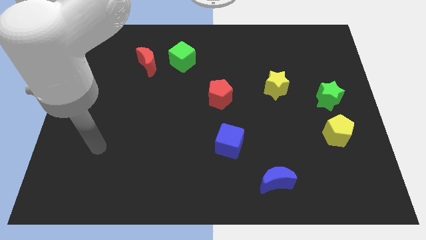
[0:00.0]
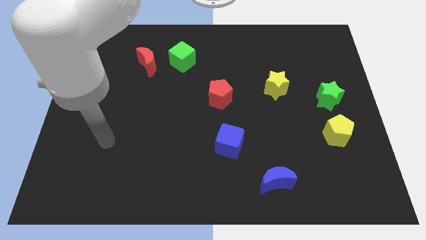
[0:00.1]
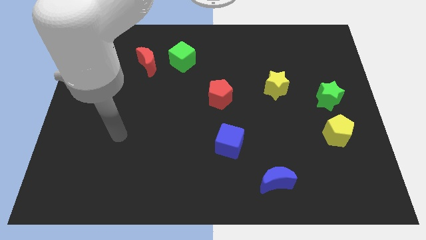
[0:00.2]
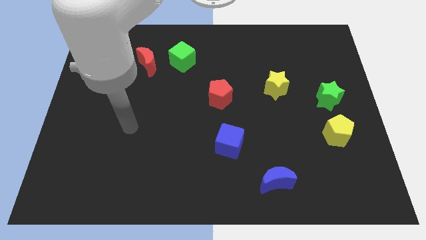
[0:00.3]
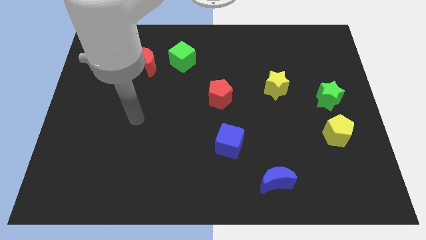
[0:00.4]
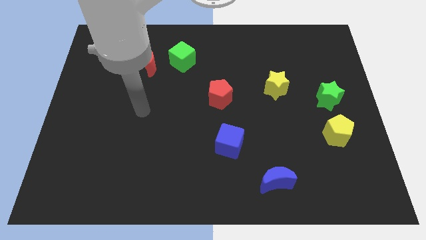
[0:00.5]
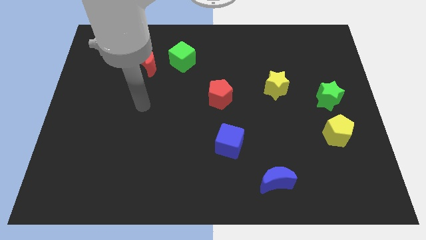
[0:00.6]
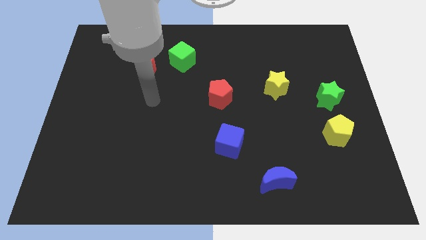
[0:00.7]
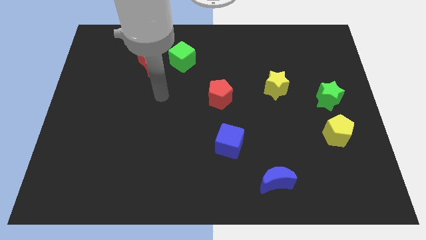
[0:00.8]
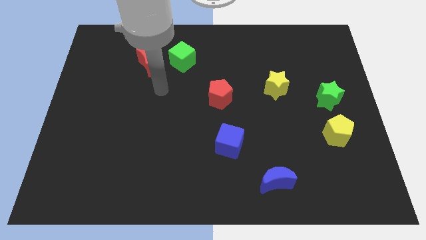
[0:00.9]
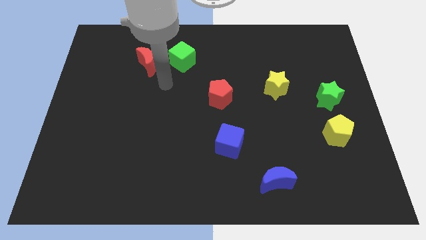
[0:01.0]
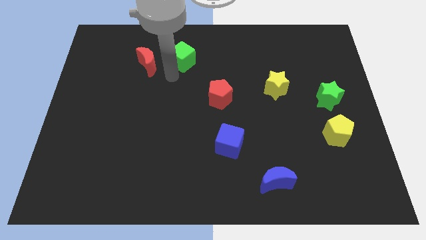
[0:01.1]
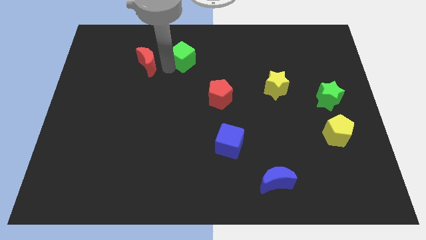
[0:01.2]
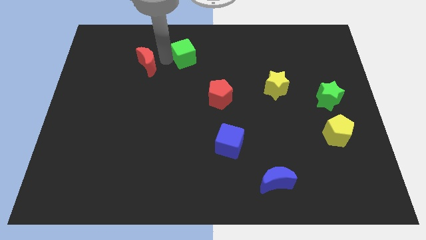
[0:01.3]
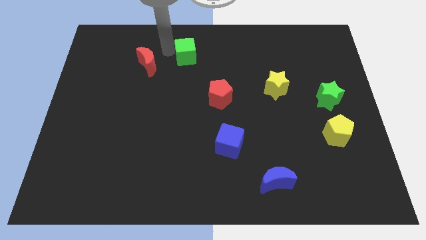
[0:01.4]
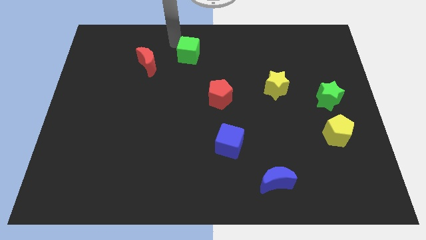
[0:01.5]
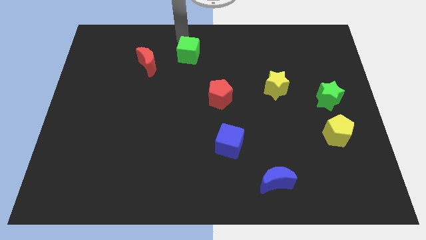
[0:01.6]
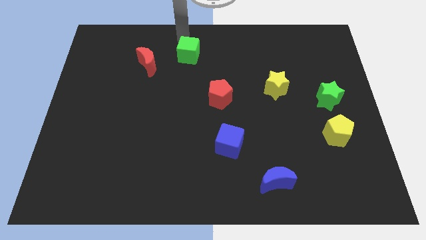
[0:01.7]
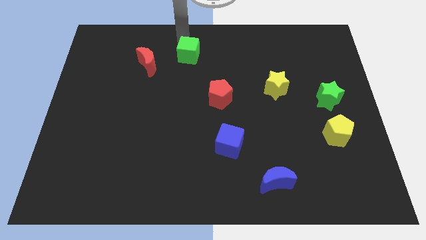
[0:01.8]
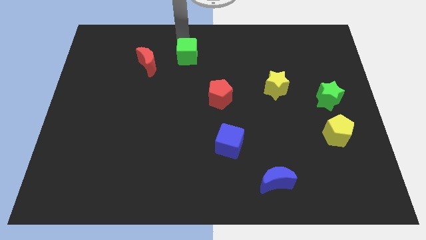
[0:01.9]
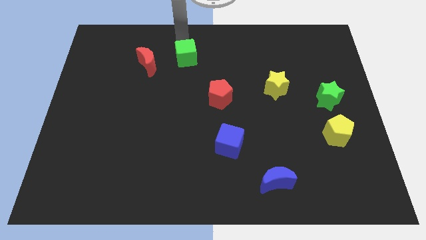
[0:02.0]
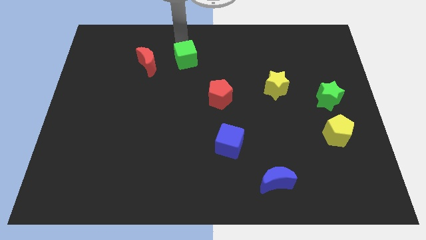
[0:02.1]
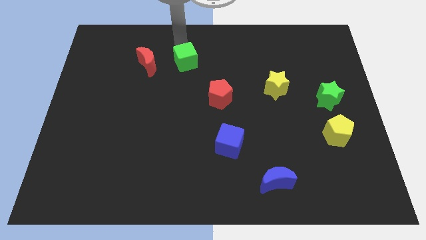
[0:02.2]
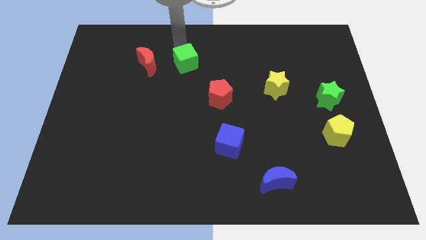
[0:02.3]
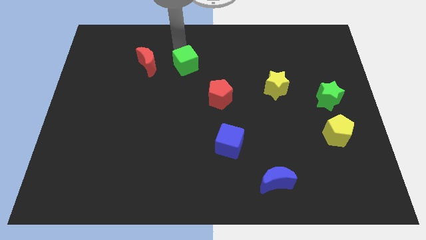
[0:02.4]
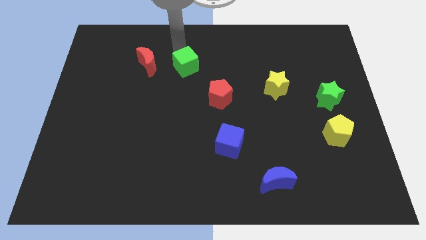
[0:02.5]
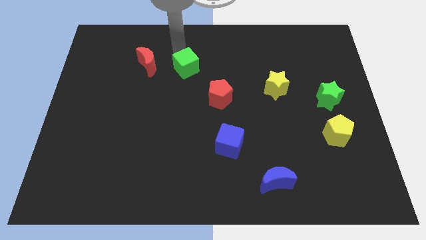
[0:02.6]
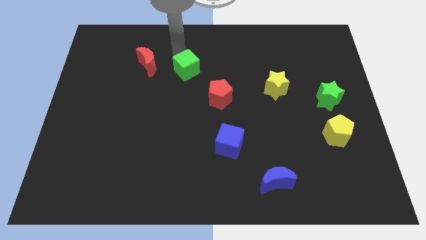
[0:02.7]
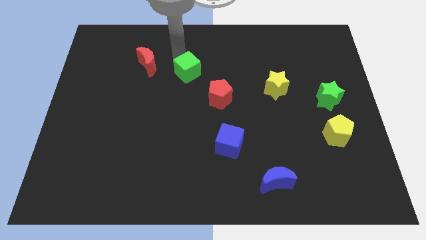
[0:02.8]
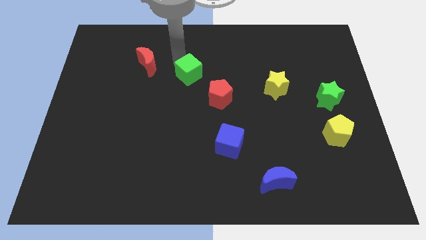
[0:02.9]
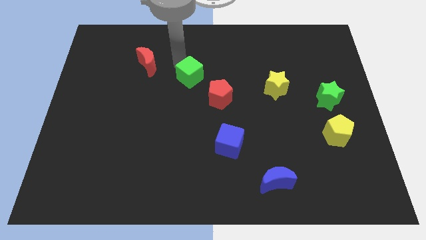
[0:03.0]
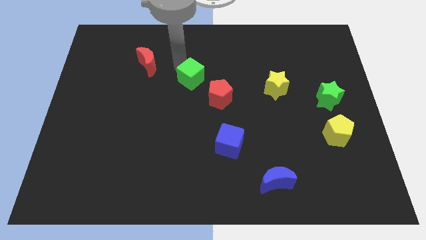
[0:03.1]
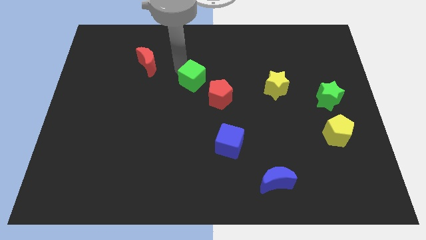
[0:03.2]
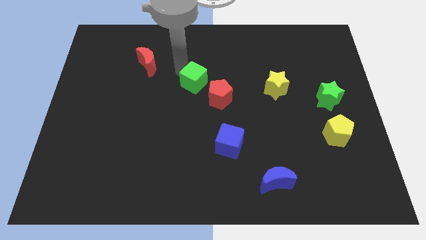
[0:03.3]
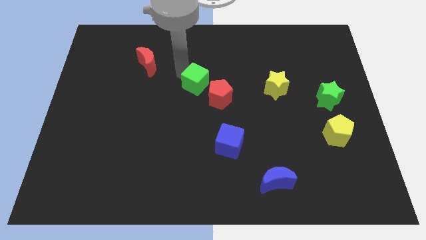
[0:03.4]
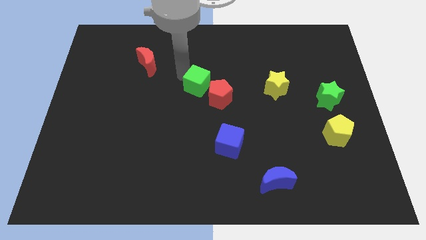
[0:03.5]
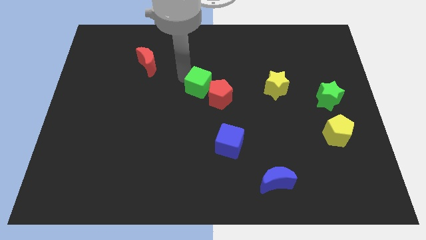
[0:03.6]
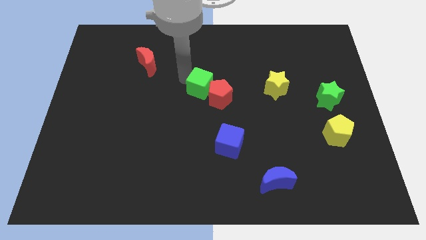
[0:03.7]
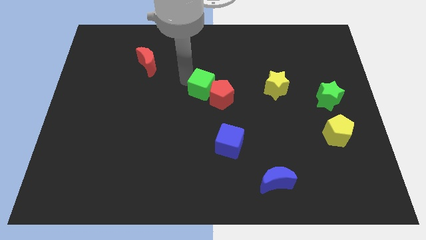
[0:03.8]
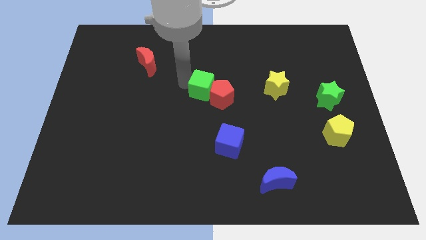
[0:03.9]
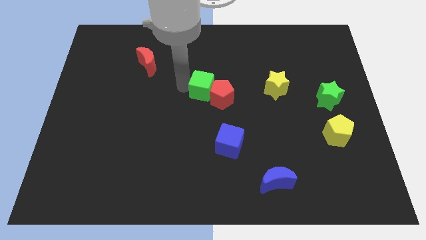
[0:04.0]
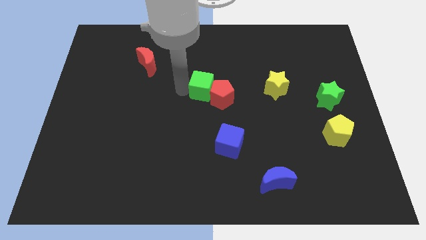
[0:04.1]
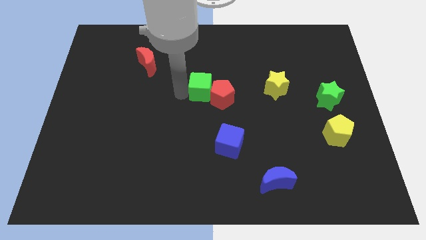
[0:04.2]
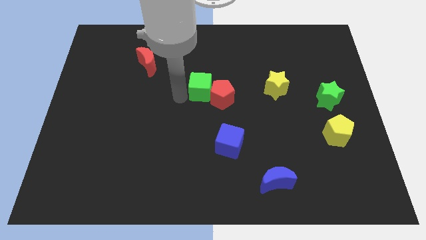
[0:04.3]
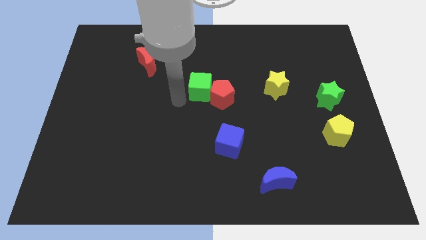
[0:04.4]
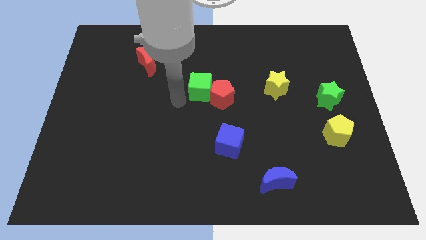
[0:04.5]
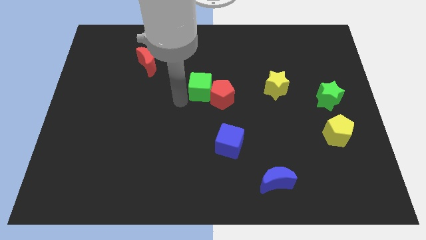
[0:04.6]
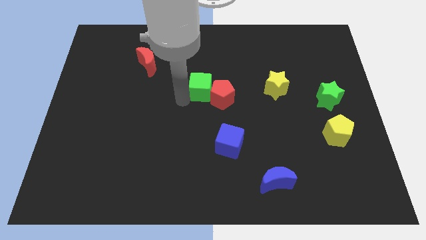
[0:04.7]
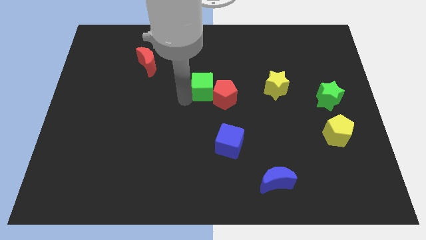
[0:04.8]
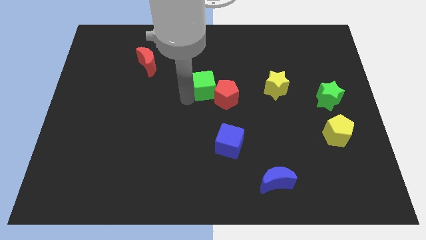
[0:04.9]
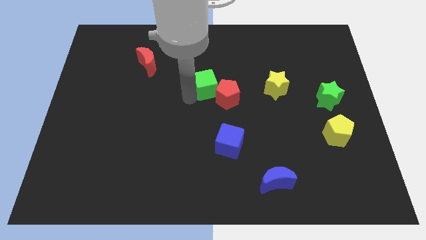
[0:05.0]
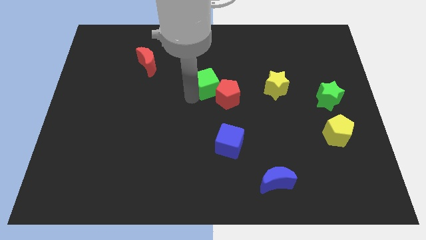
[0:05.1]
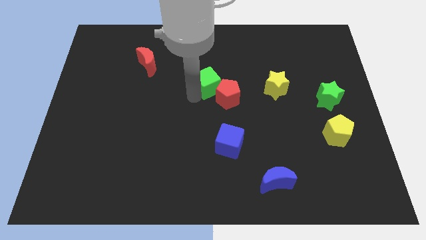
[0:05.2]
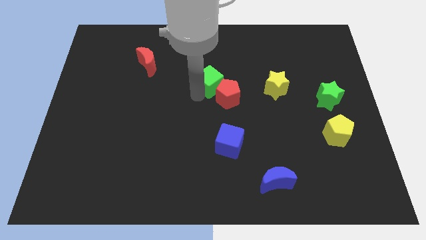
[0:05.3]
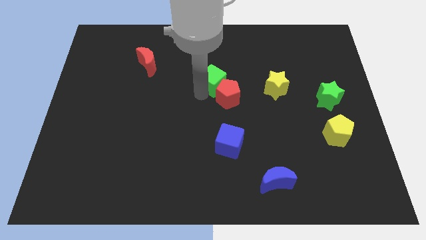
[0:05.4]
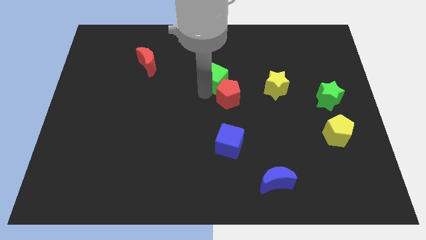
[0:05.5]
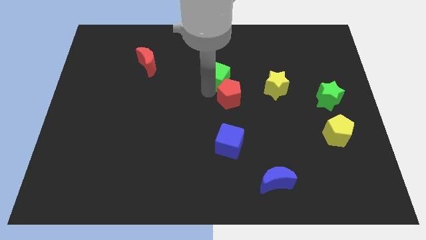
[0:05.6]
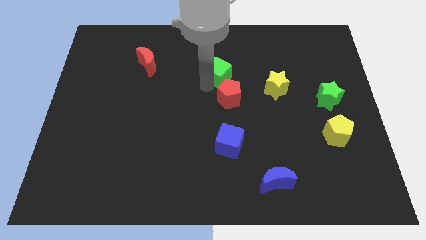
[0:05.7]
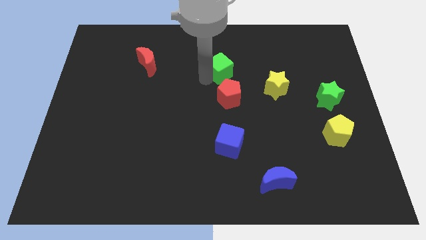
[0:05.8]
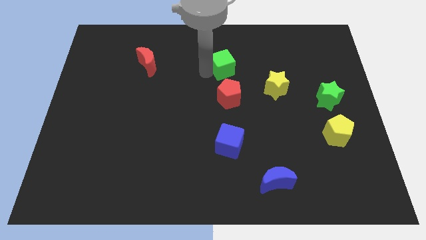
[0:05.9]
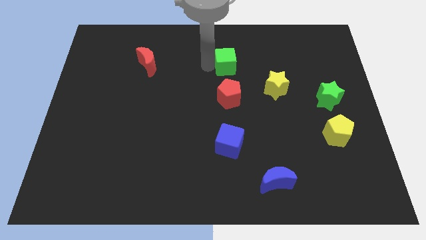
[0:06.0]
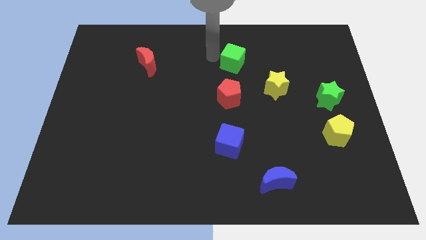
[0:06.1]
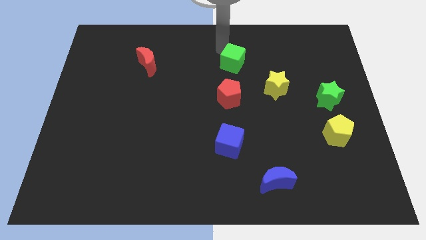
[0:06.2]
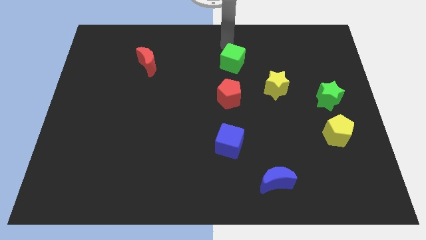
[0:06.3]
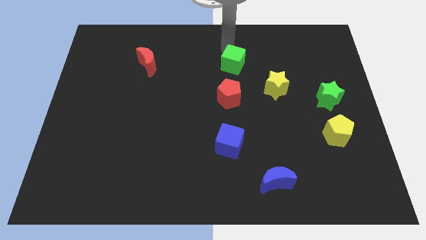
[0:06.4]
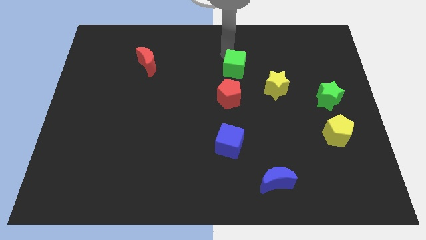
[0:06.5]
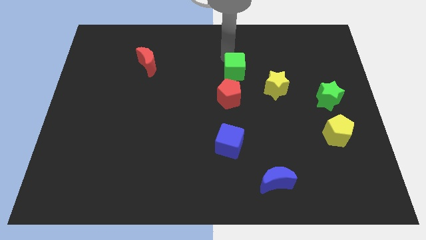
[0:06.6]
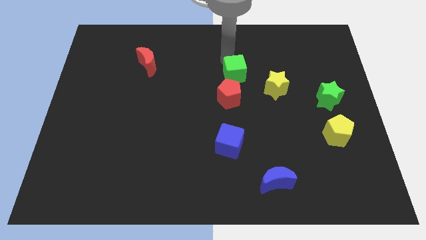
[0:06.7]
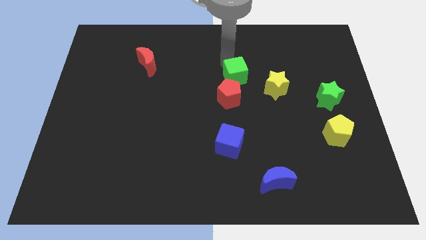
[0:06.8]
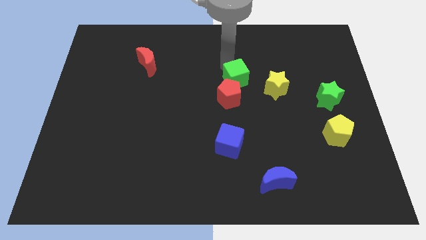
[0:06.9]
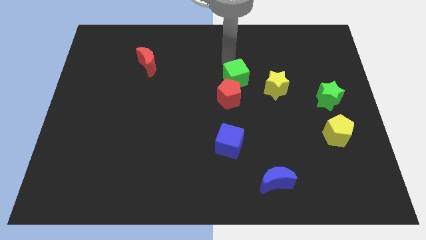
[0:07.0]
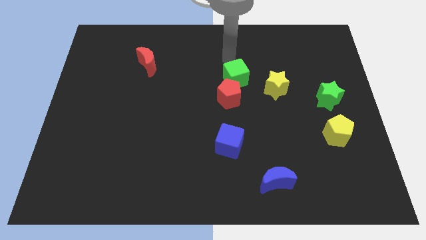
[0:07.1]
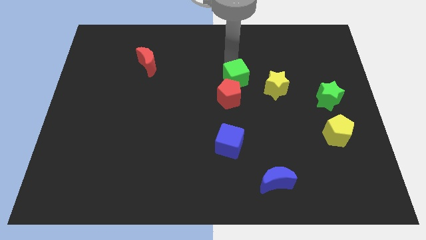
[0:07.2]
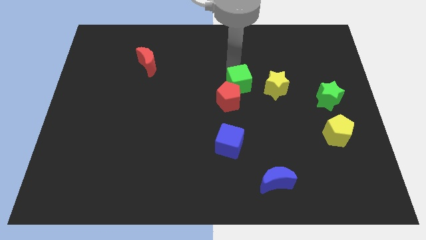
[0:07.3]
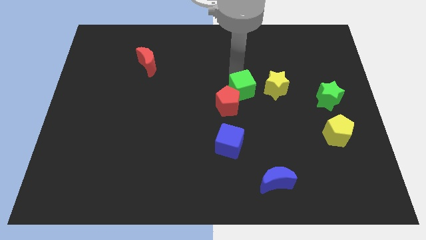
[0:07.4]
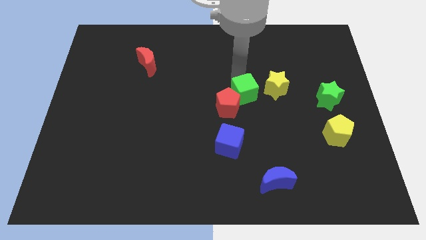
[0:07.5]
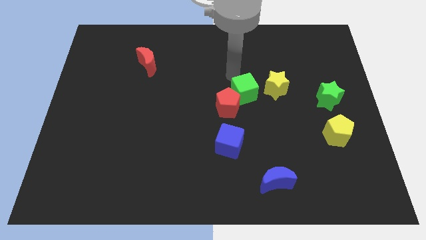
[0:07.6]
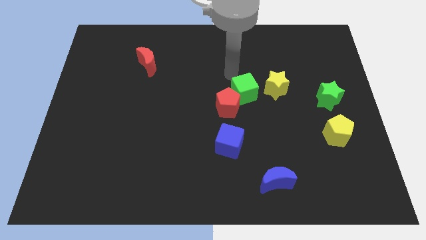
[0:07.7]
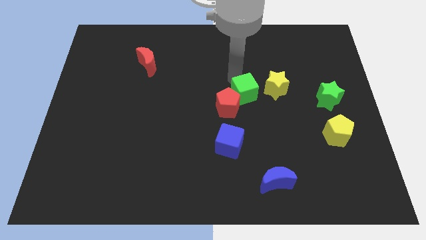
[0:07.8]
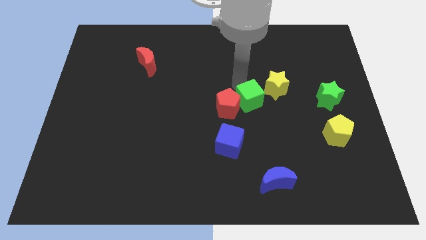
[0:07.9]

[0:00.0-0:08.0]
slide the green cube downwards and right diagonally
